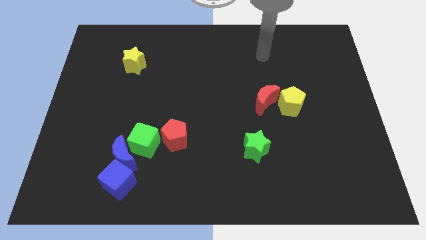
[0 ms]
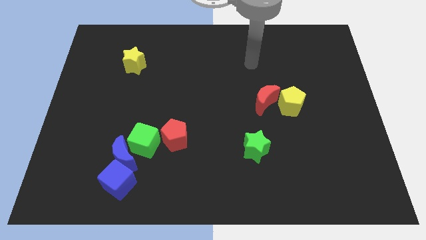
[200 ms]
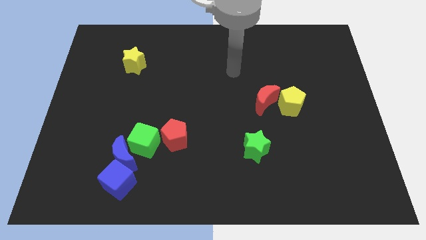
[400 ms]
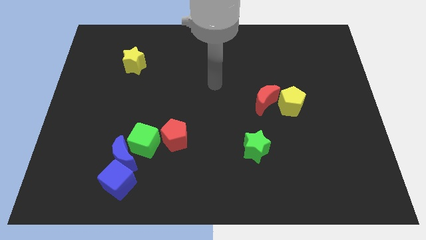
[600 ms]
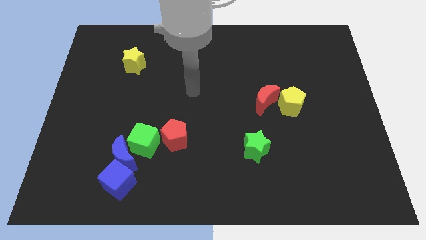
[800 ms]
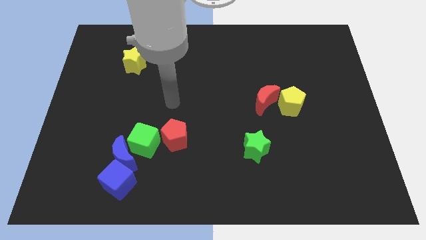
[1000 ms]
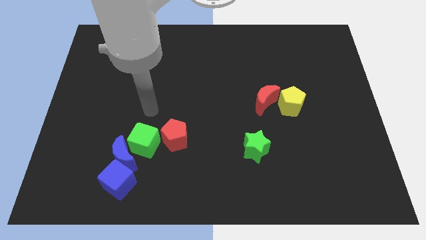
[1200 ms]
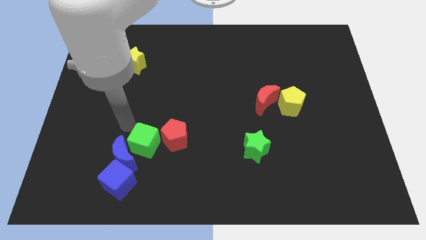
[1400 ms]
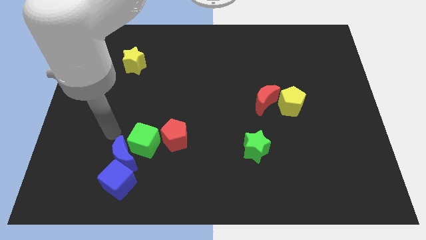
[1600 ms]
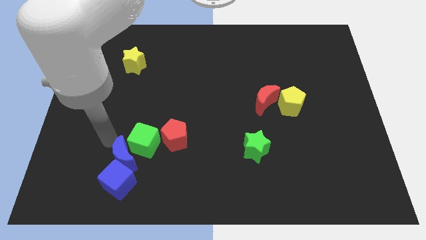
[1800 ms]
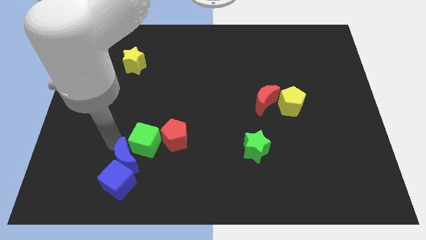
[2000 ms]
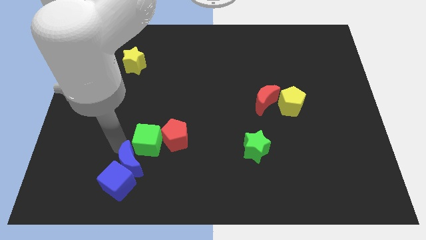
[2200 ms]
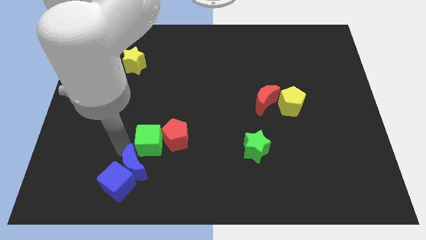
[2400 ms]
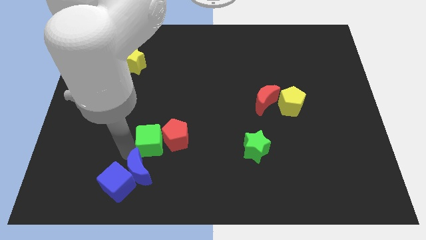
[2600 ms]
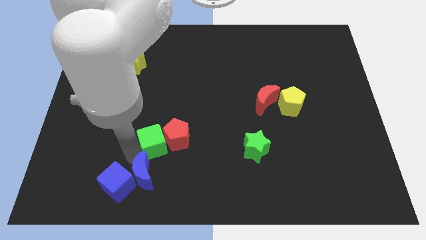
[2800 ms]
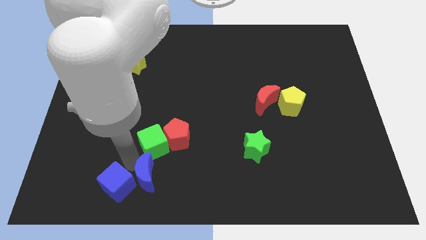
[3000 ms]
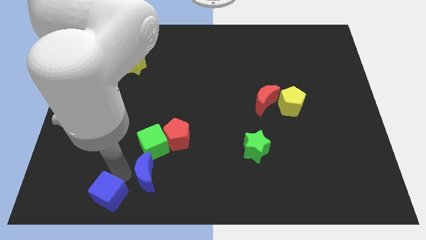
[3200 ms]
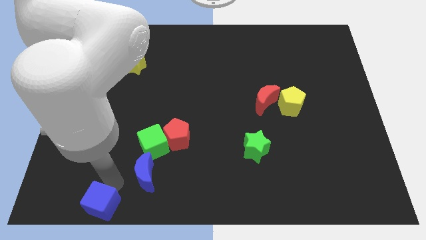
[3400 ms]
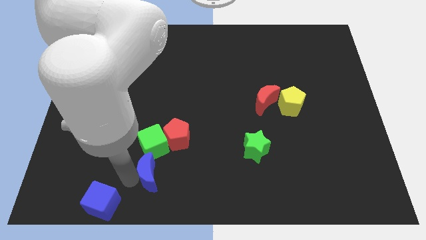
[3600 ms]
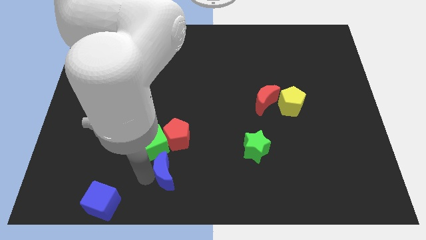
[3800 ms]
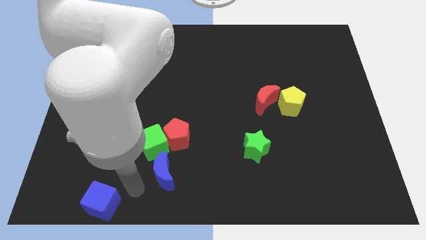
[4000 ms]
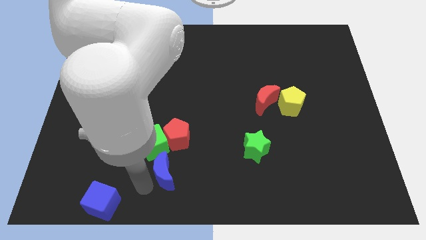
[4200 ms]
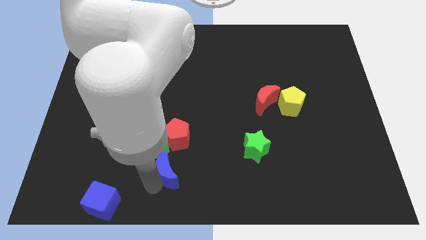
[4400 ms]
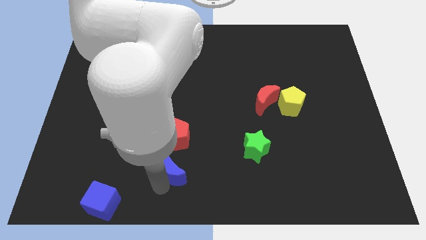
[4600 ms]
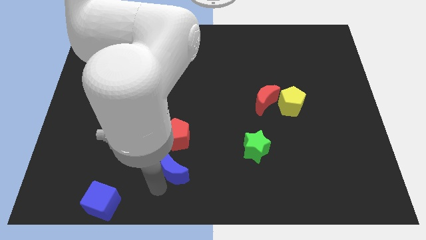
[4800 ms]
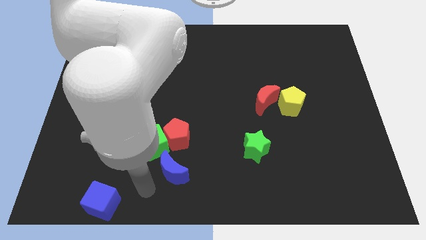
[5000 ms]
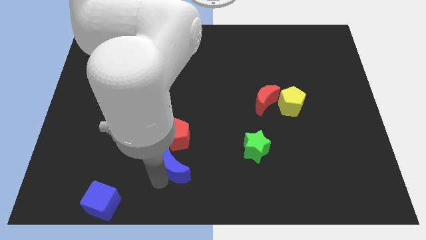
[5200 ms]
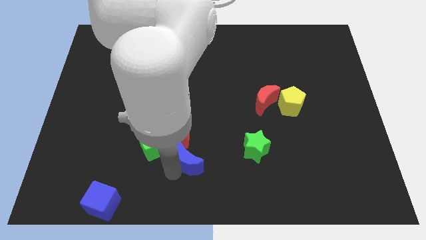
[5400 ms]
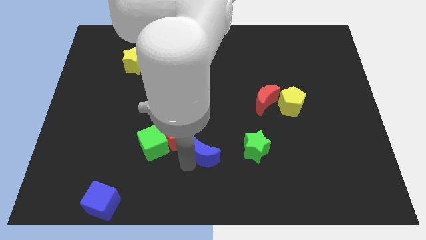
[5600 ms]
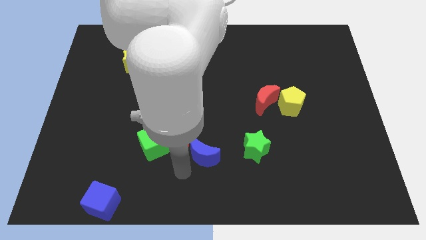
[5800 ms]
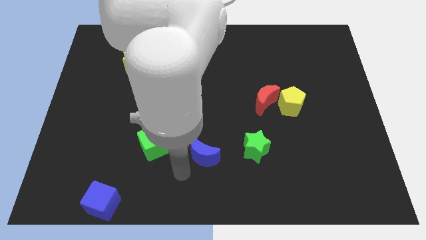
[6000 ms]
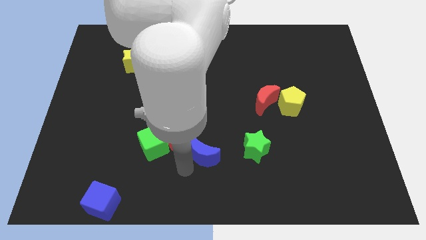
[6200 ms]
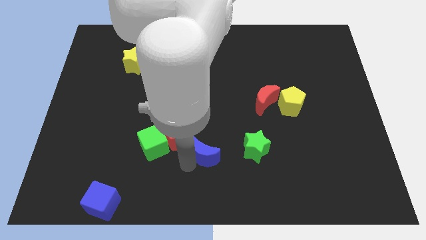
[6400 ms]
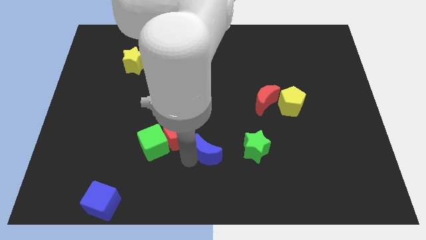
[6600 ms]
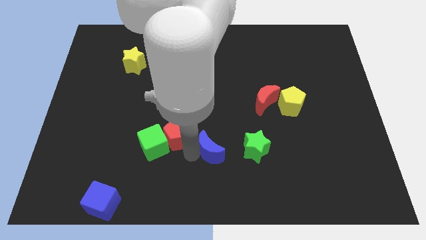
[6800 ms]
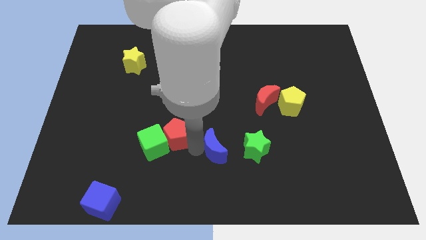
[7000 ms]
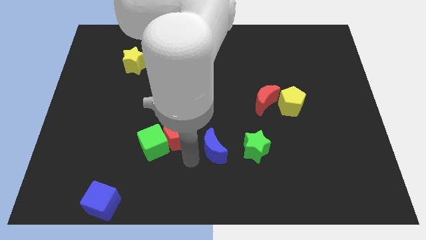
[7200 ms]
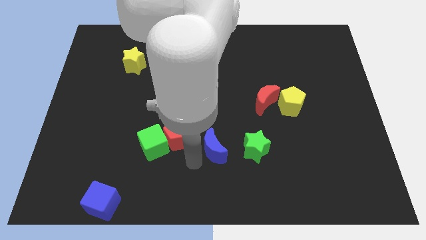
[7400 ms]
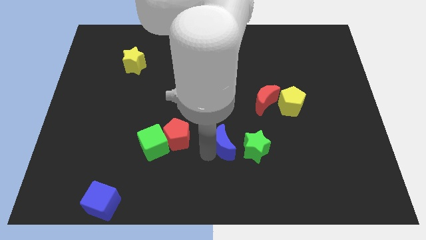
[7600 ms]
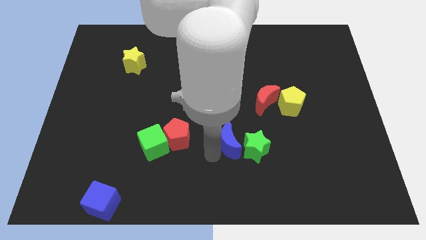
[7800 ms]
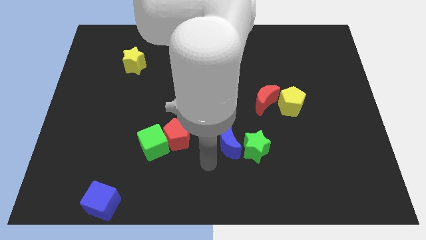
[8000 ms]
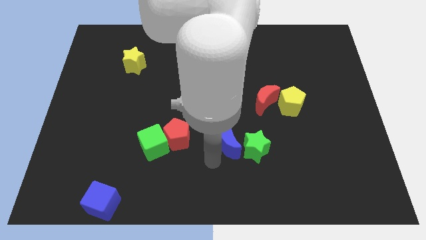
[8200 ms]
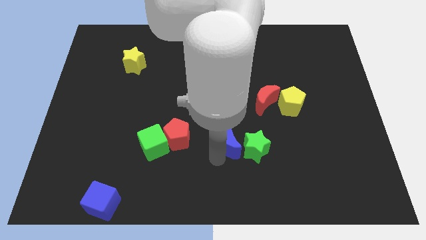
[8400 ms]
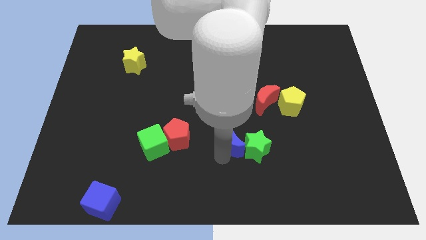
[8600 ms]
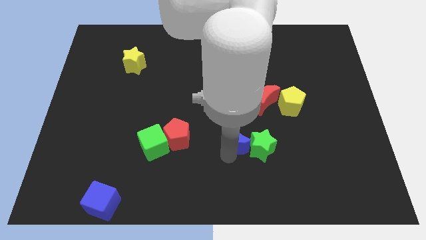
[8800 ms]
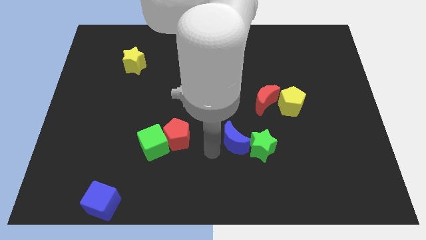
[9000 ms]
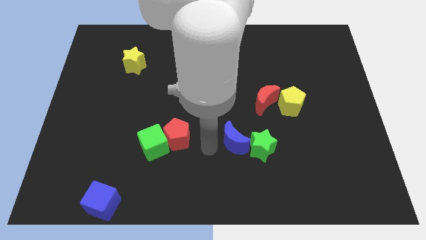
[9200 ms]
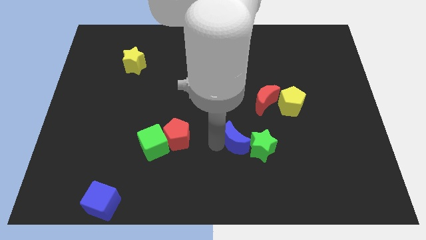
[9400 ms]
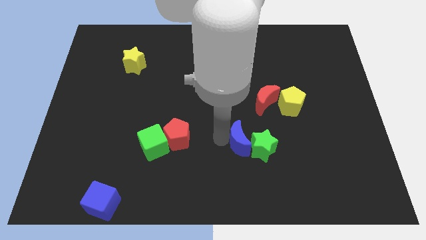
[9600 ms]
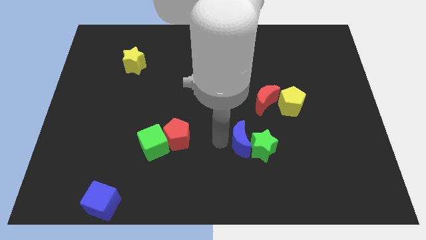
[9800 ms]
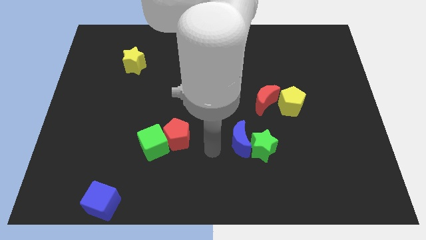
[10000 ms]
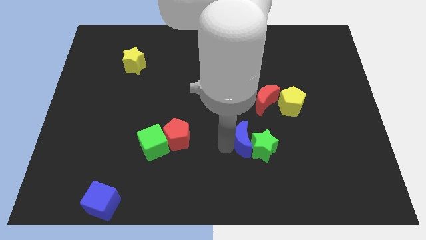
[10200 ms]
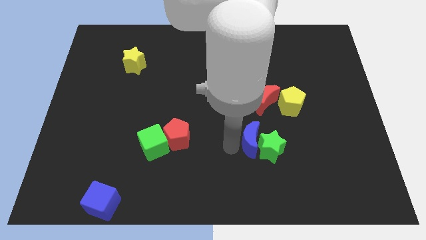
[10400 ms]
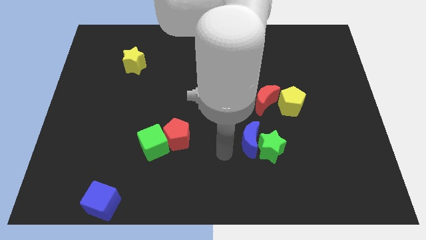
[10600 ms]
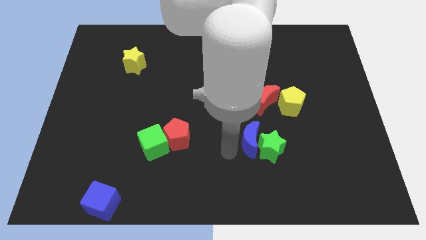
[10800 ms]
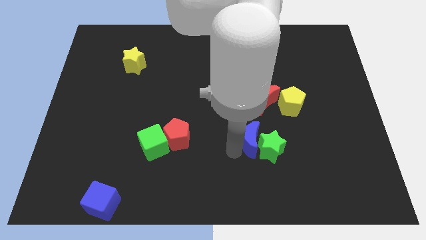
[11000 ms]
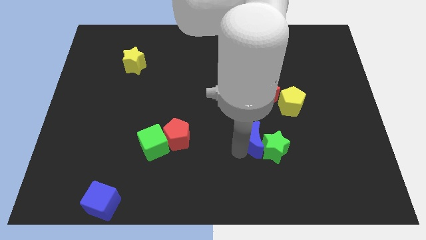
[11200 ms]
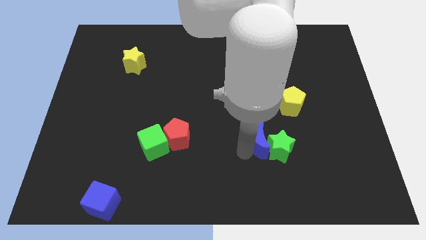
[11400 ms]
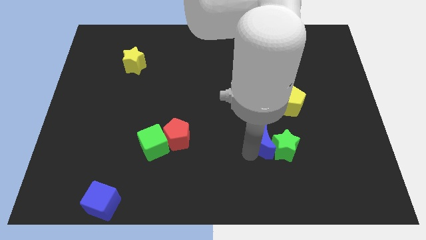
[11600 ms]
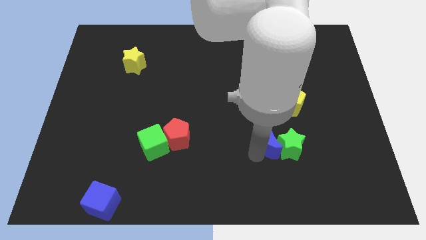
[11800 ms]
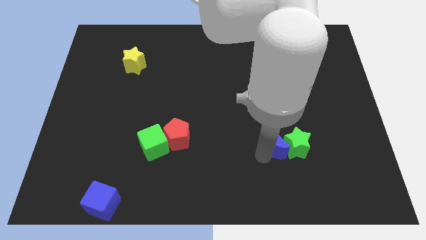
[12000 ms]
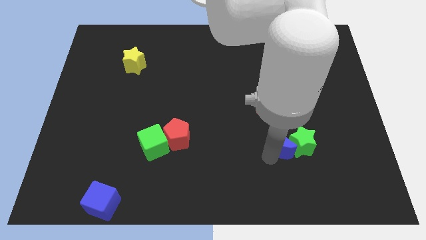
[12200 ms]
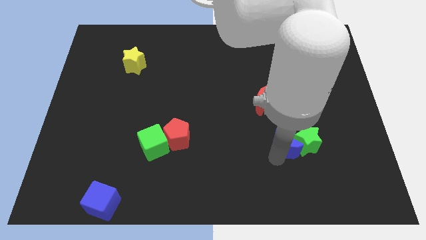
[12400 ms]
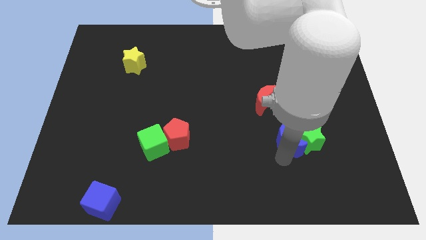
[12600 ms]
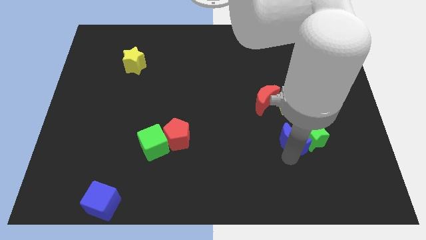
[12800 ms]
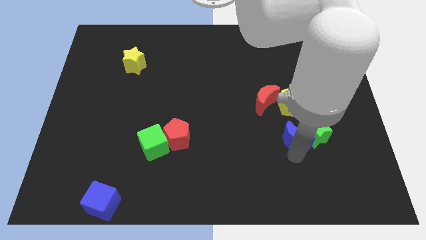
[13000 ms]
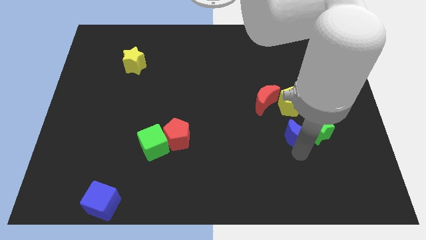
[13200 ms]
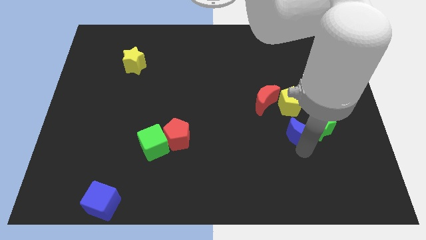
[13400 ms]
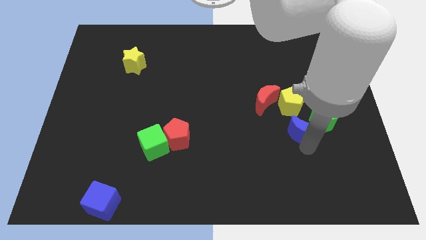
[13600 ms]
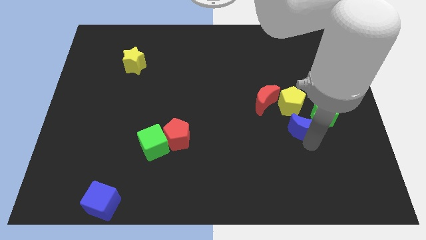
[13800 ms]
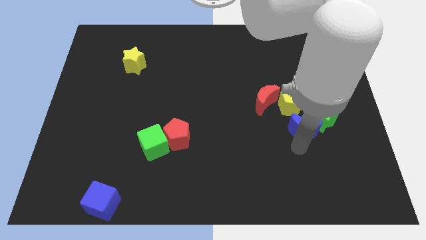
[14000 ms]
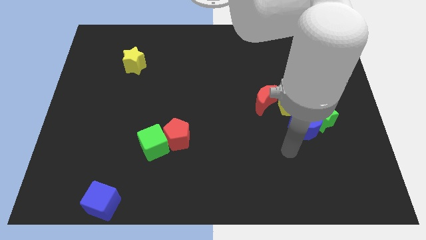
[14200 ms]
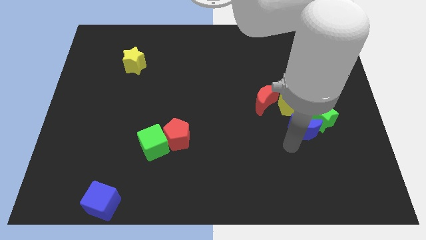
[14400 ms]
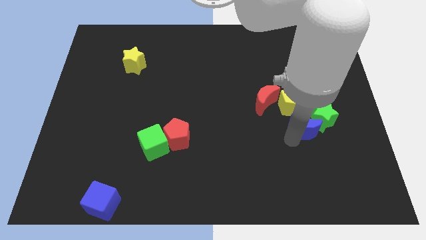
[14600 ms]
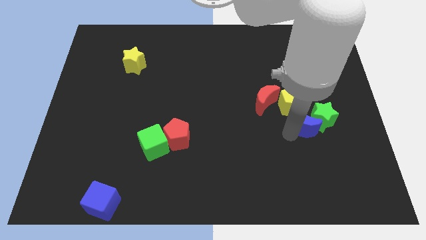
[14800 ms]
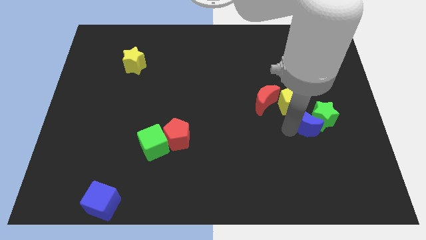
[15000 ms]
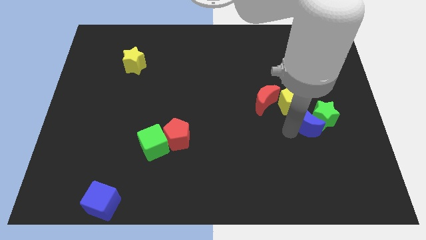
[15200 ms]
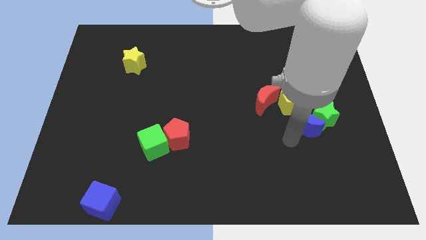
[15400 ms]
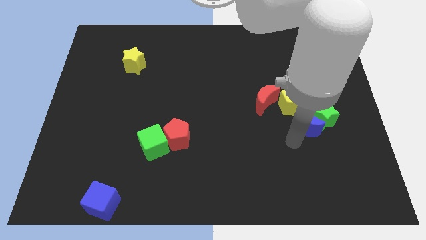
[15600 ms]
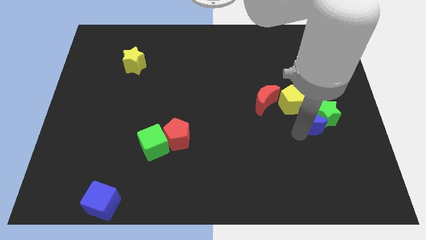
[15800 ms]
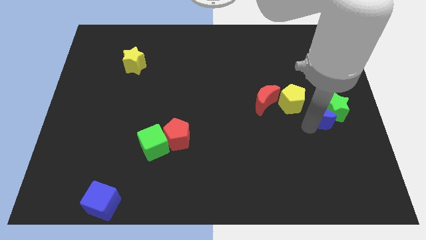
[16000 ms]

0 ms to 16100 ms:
move the blue moon just right of the red moon
